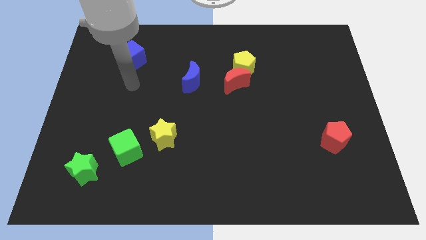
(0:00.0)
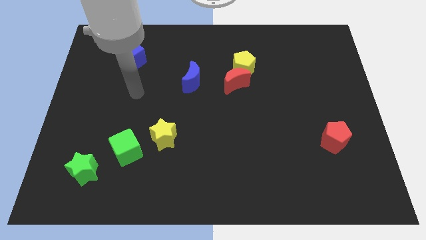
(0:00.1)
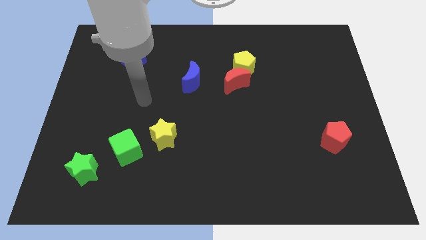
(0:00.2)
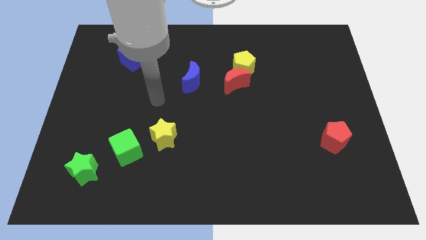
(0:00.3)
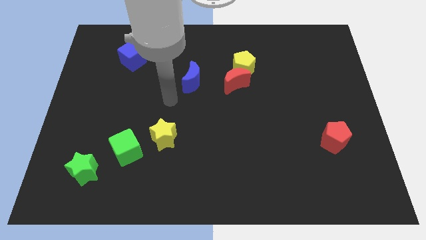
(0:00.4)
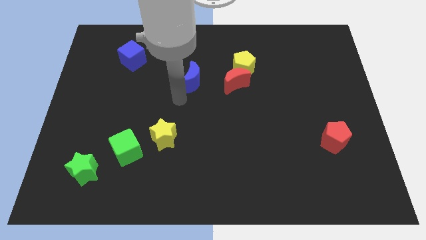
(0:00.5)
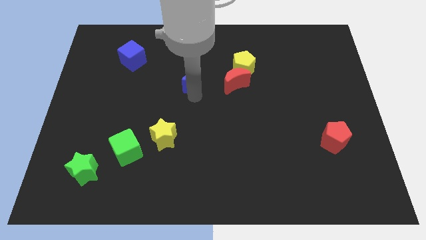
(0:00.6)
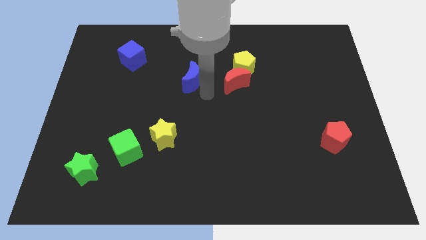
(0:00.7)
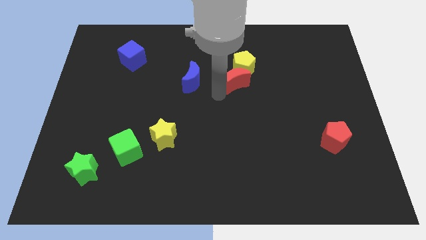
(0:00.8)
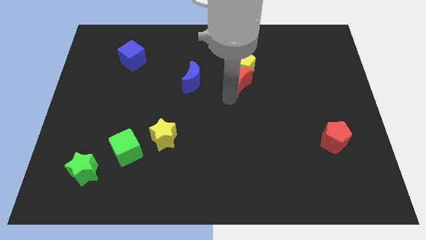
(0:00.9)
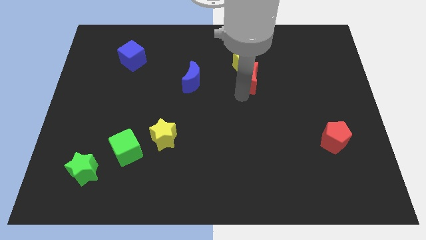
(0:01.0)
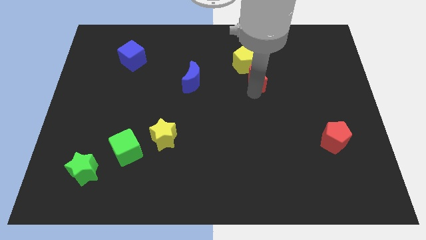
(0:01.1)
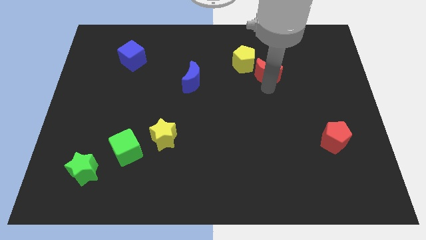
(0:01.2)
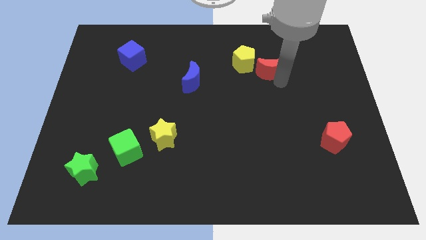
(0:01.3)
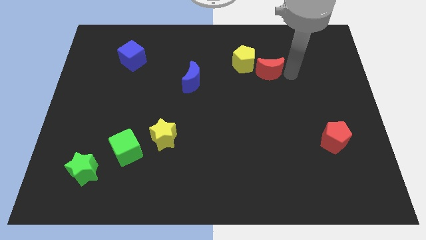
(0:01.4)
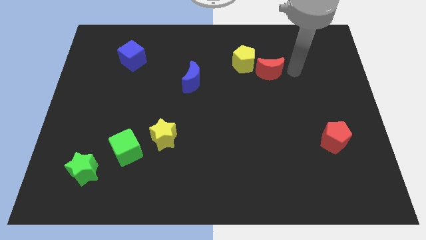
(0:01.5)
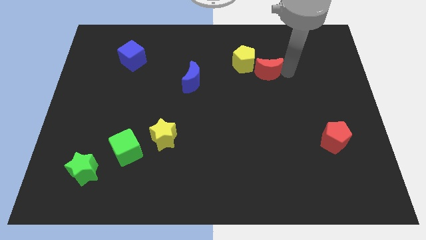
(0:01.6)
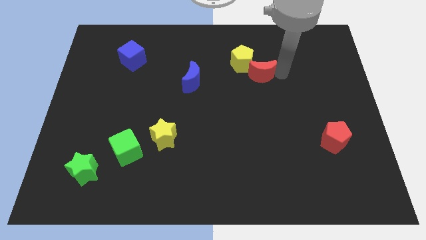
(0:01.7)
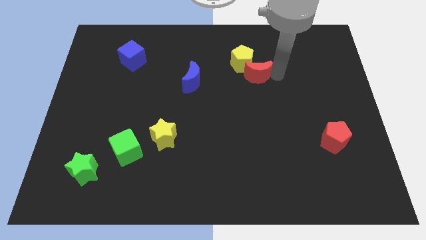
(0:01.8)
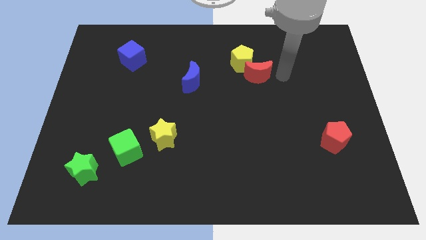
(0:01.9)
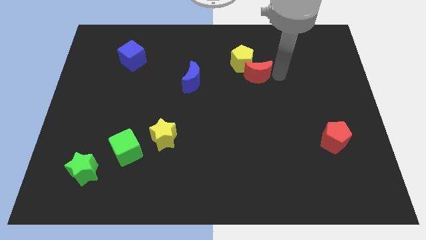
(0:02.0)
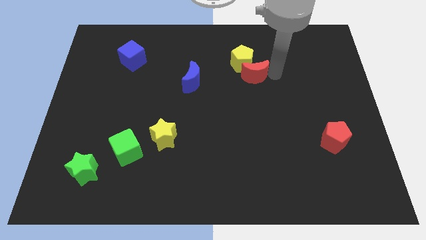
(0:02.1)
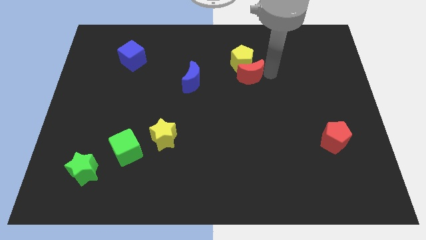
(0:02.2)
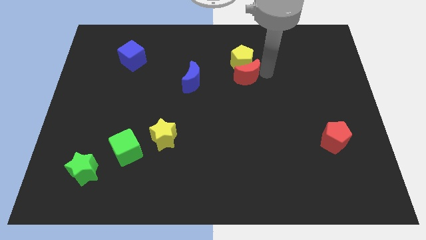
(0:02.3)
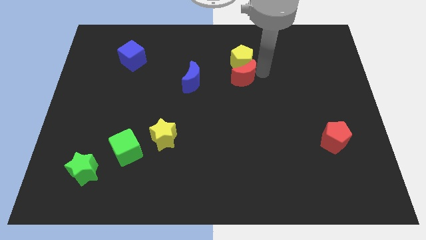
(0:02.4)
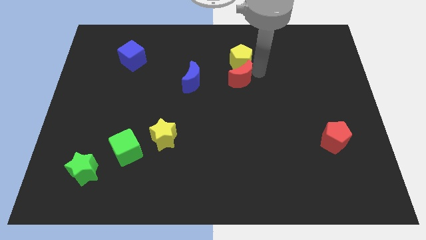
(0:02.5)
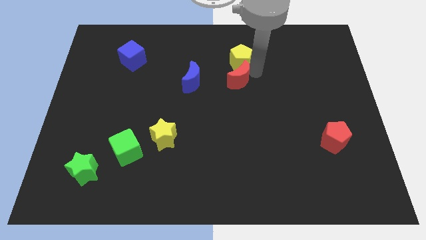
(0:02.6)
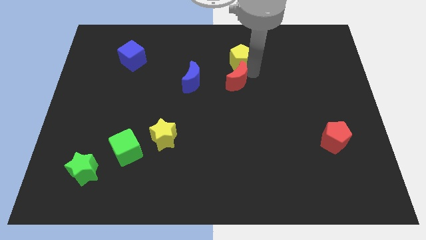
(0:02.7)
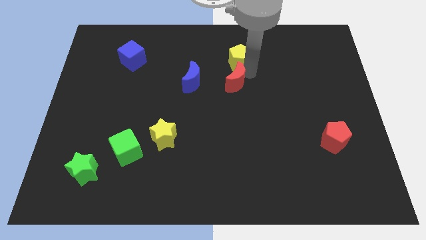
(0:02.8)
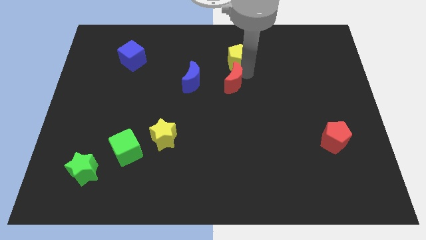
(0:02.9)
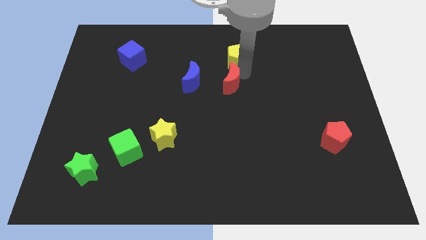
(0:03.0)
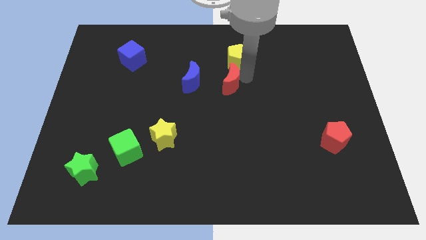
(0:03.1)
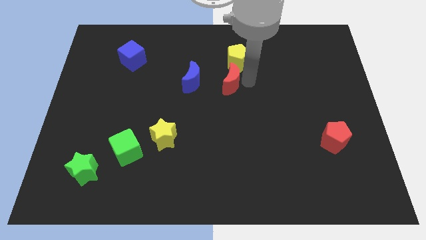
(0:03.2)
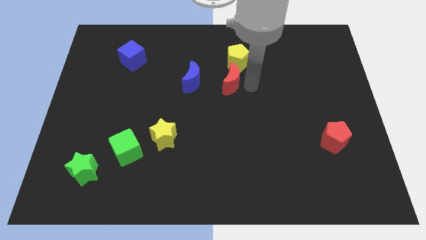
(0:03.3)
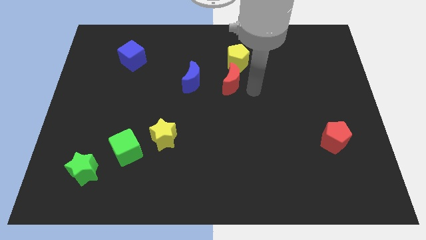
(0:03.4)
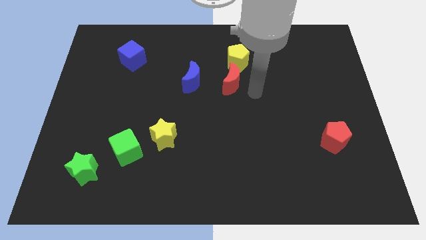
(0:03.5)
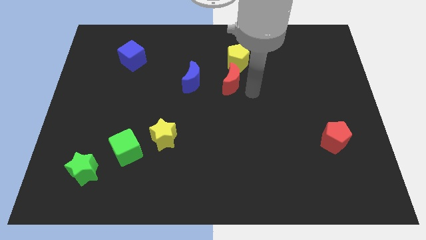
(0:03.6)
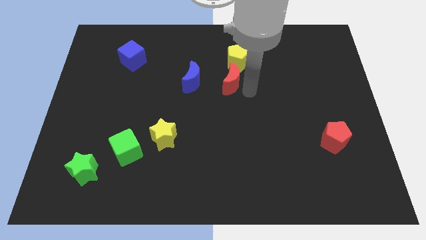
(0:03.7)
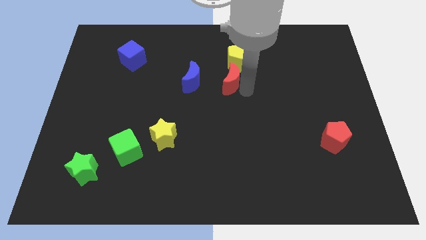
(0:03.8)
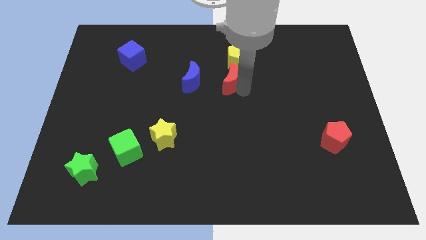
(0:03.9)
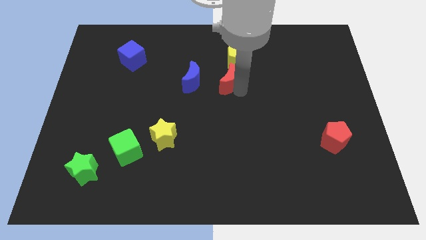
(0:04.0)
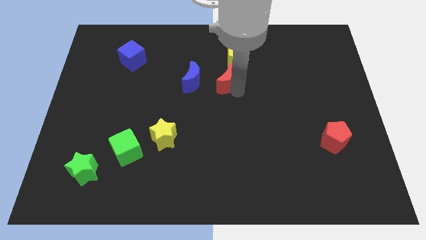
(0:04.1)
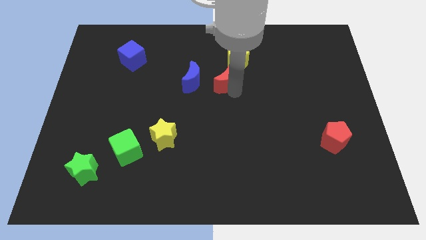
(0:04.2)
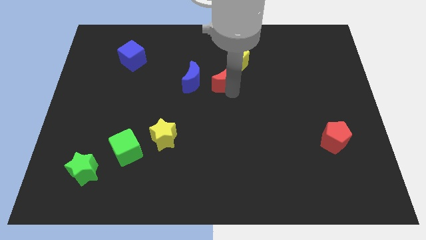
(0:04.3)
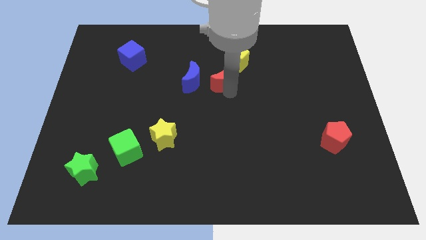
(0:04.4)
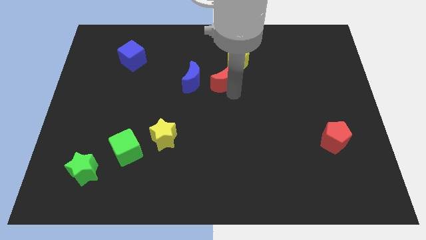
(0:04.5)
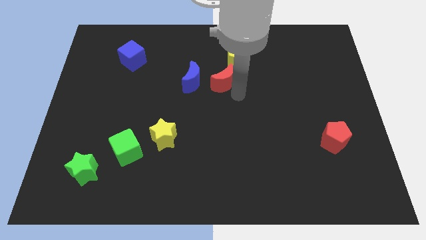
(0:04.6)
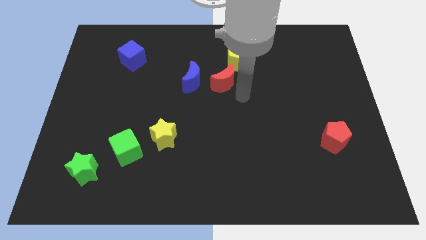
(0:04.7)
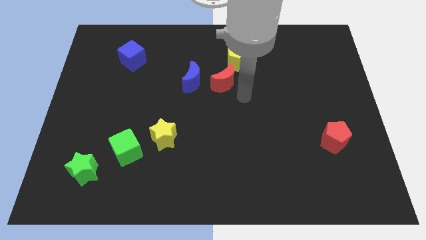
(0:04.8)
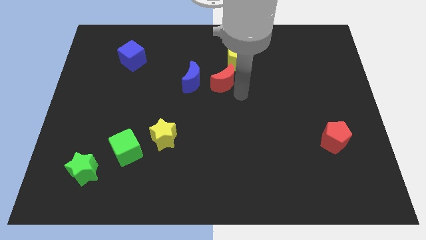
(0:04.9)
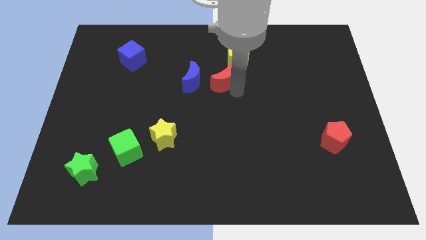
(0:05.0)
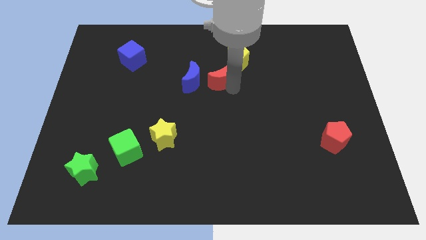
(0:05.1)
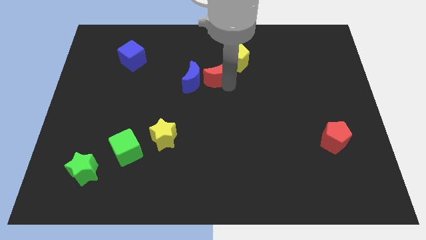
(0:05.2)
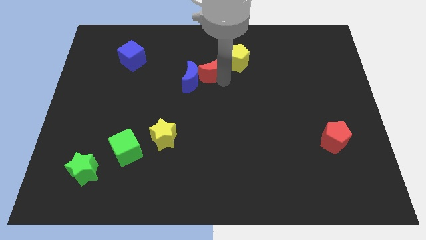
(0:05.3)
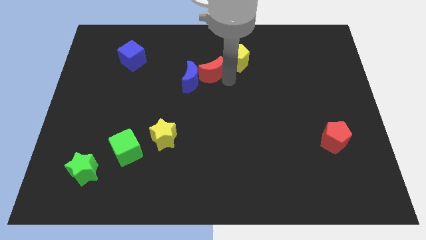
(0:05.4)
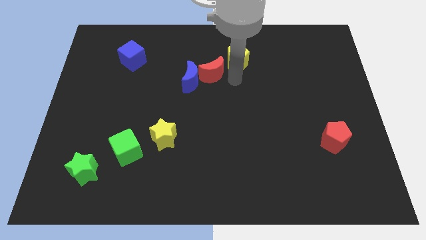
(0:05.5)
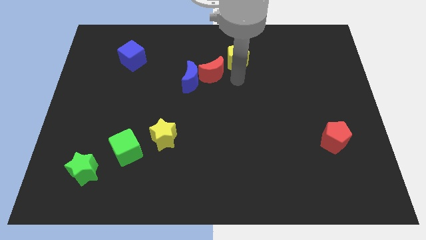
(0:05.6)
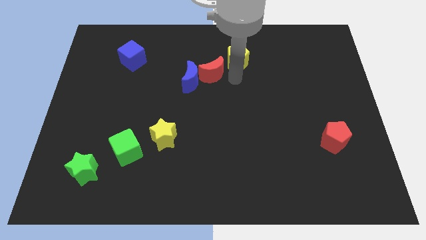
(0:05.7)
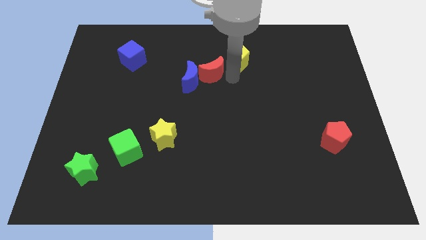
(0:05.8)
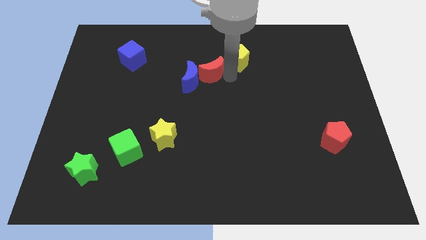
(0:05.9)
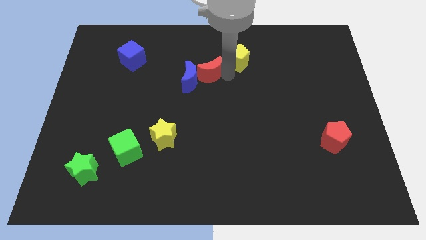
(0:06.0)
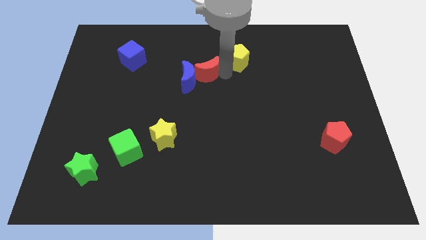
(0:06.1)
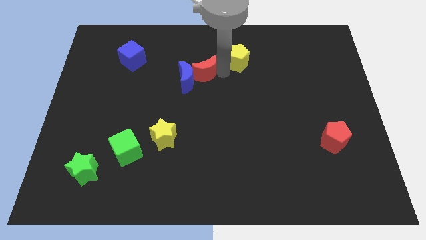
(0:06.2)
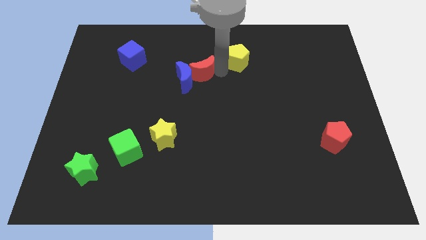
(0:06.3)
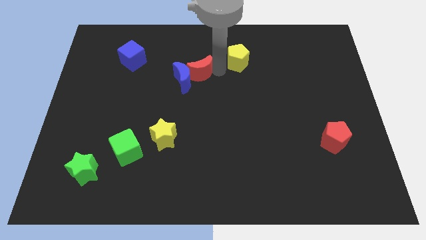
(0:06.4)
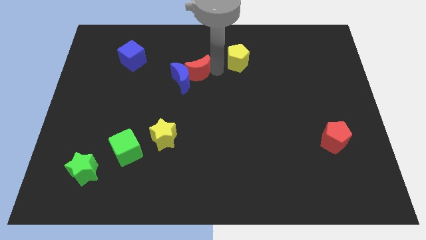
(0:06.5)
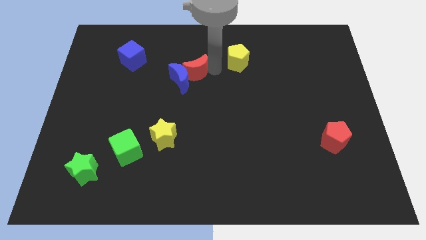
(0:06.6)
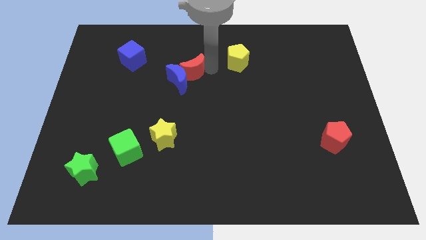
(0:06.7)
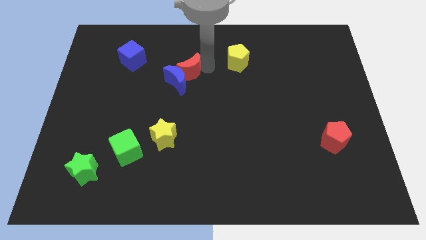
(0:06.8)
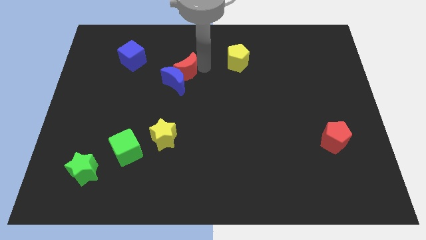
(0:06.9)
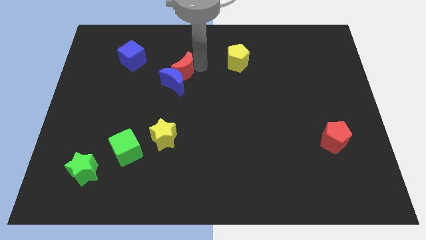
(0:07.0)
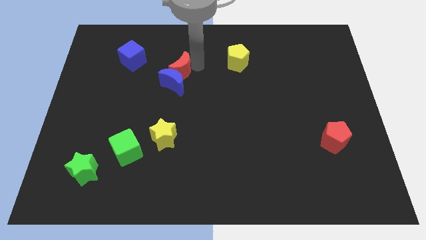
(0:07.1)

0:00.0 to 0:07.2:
slide the red moon diagonally up and to the left of the blue moon

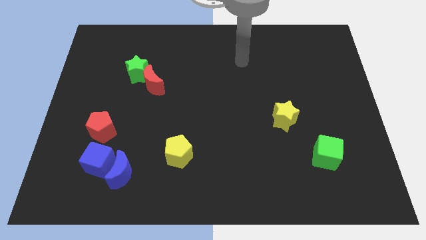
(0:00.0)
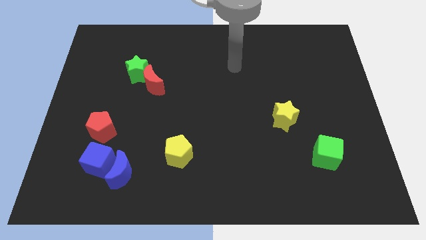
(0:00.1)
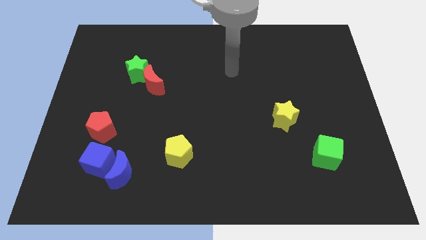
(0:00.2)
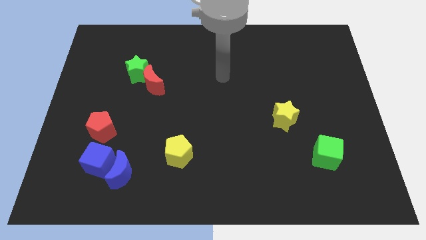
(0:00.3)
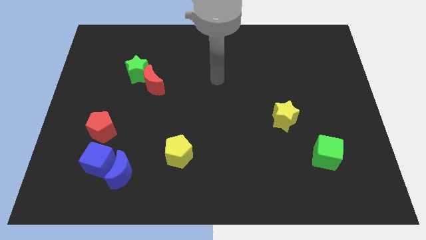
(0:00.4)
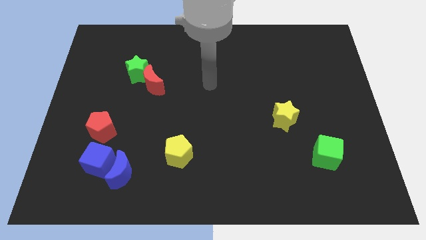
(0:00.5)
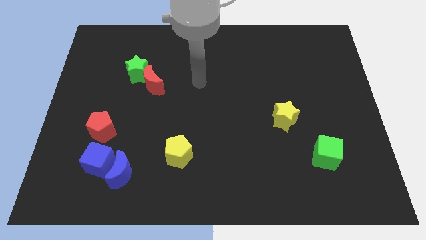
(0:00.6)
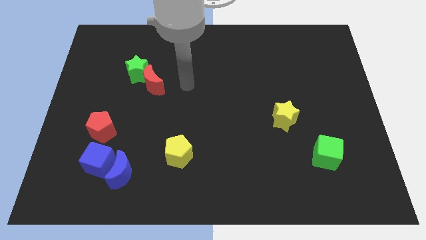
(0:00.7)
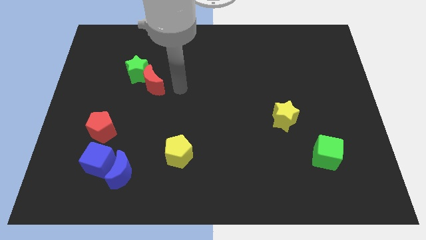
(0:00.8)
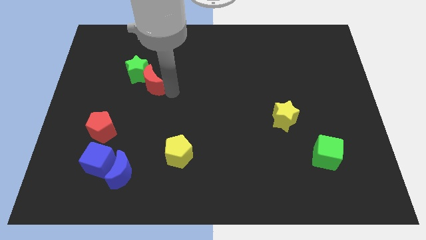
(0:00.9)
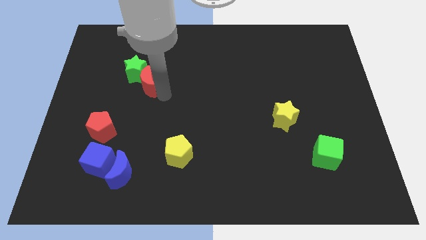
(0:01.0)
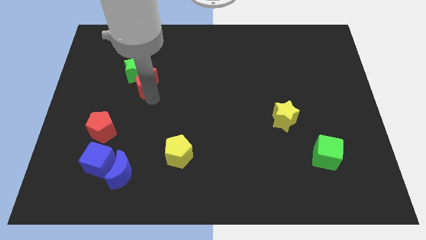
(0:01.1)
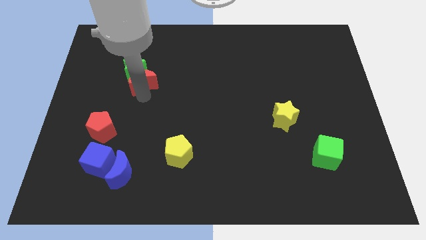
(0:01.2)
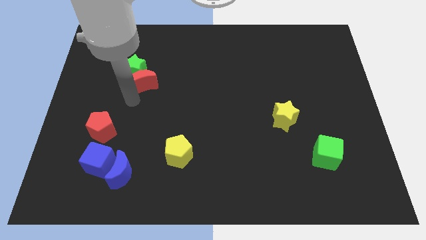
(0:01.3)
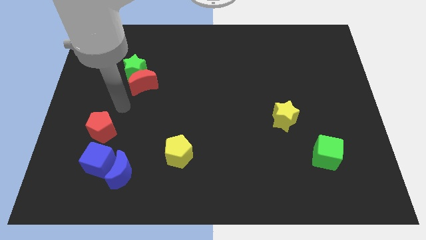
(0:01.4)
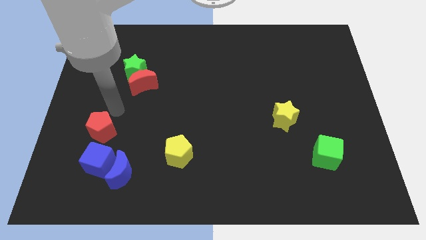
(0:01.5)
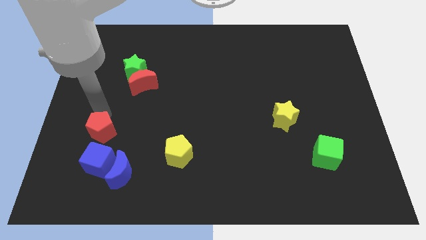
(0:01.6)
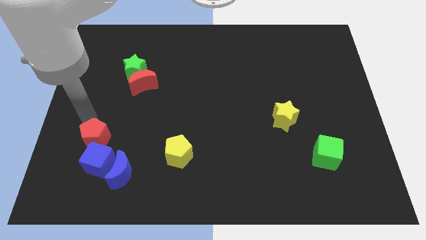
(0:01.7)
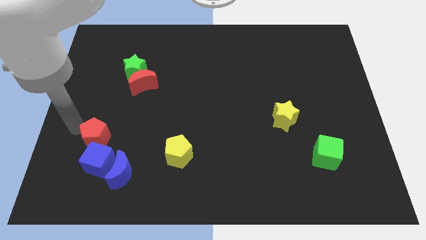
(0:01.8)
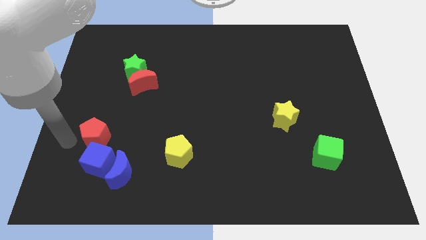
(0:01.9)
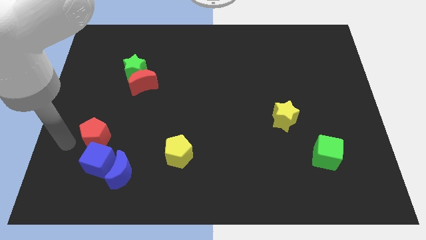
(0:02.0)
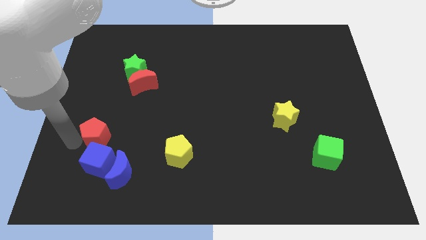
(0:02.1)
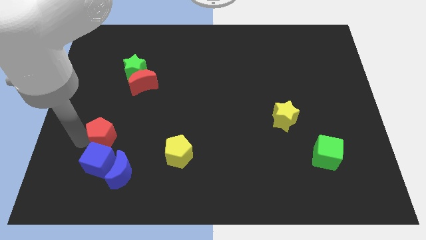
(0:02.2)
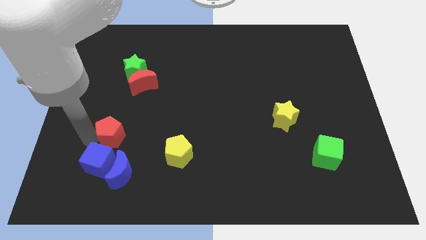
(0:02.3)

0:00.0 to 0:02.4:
put the red pentagon to the top side of the blue moon
